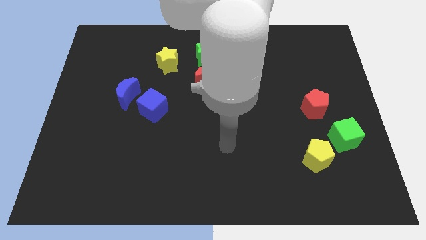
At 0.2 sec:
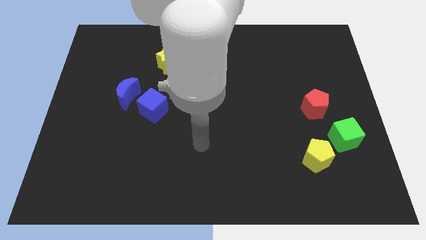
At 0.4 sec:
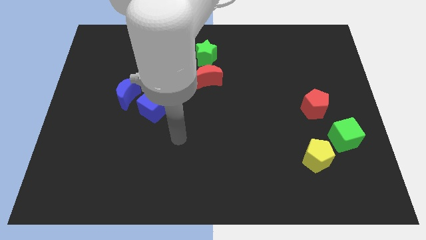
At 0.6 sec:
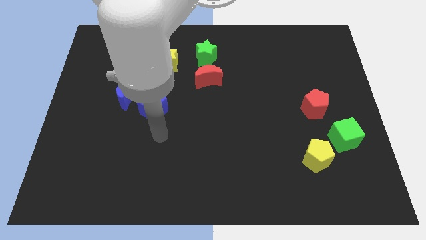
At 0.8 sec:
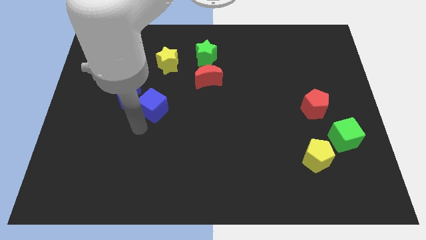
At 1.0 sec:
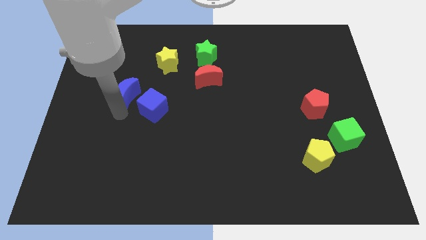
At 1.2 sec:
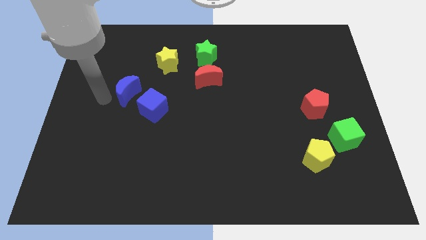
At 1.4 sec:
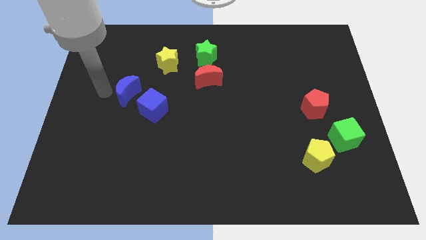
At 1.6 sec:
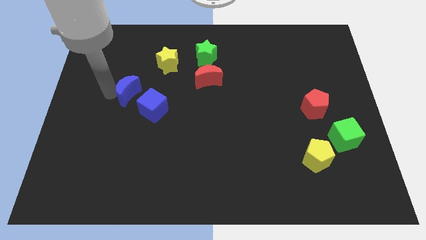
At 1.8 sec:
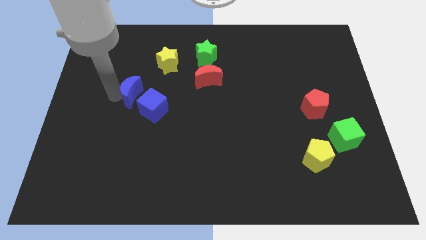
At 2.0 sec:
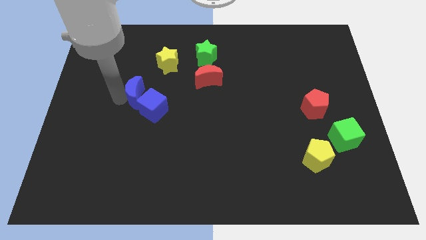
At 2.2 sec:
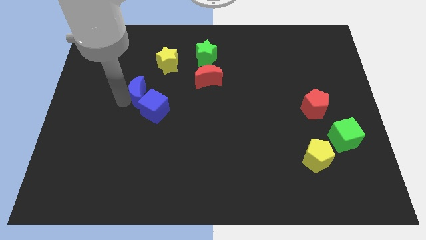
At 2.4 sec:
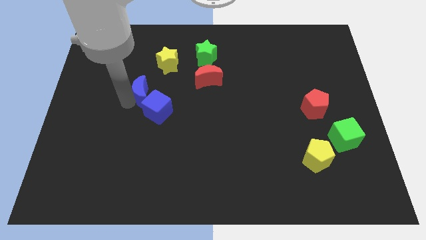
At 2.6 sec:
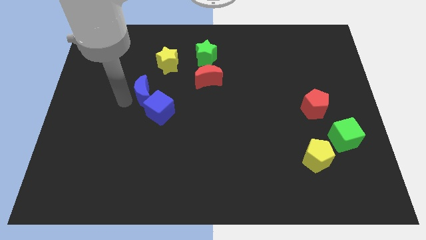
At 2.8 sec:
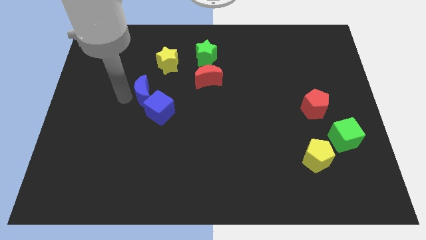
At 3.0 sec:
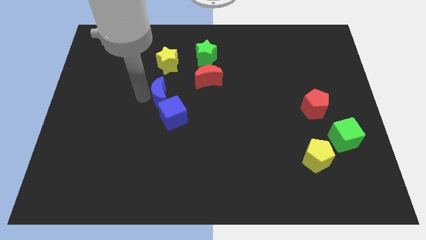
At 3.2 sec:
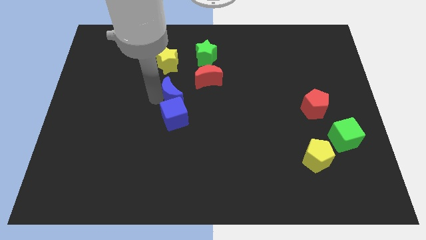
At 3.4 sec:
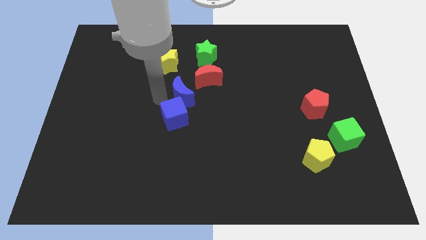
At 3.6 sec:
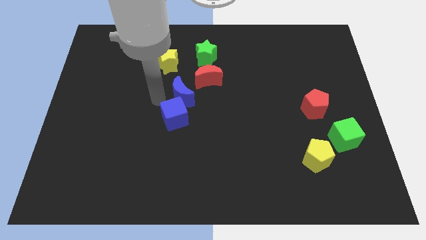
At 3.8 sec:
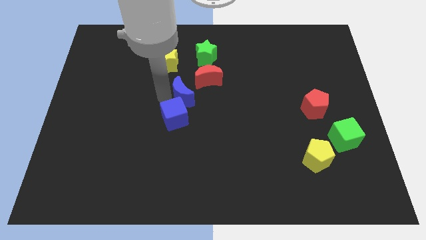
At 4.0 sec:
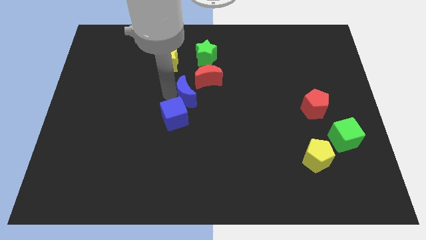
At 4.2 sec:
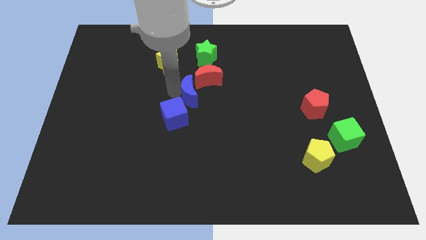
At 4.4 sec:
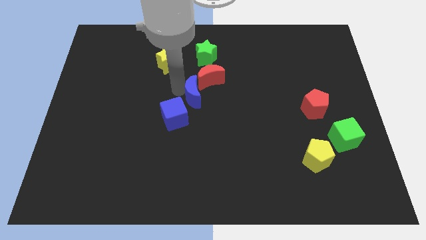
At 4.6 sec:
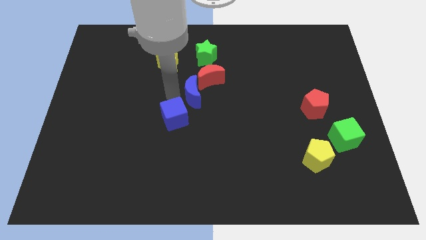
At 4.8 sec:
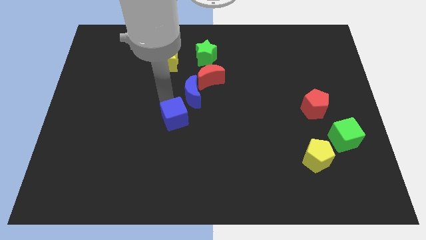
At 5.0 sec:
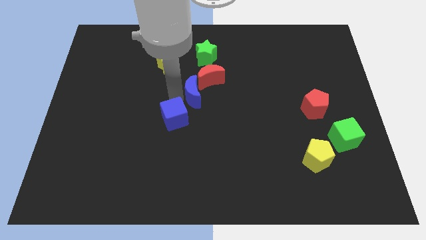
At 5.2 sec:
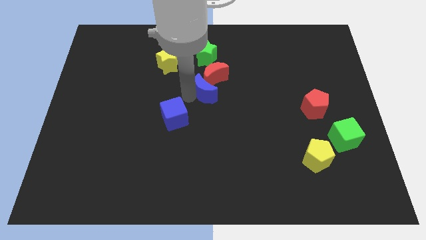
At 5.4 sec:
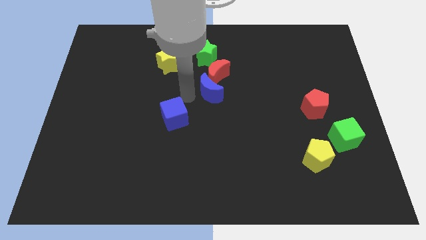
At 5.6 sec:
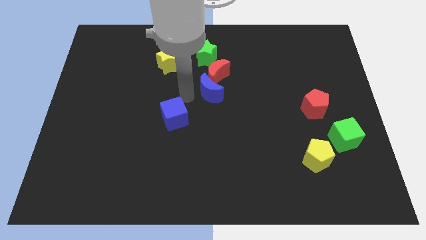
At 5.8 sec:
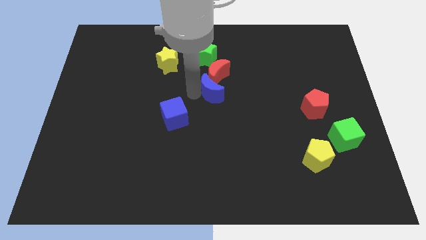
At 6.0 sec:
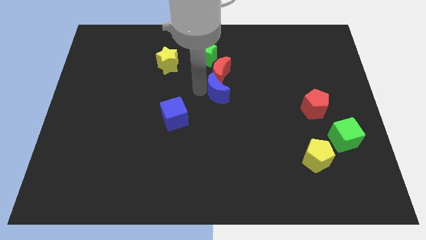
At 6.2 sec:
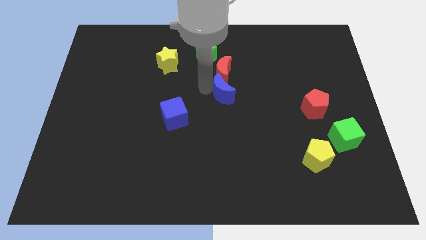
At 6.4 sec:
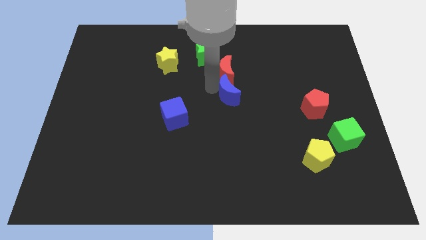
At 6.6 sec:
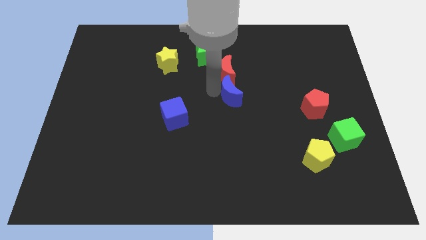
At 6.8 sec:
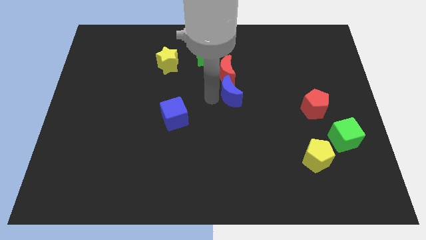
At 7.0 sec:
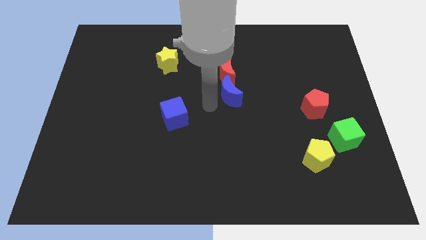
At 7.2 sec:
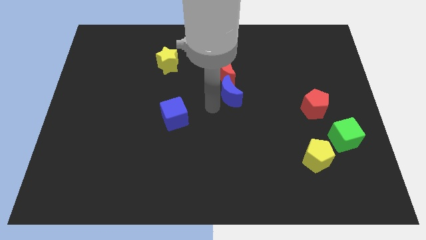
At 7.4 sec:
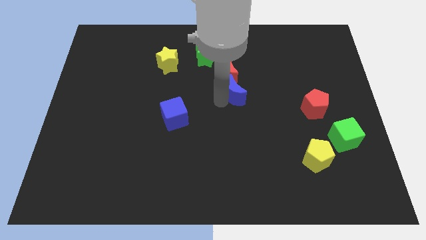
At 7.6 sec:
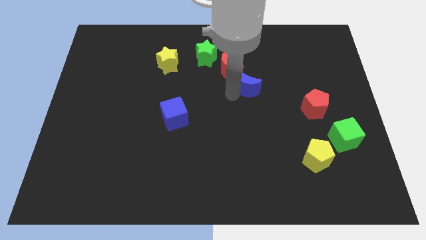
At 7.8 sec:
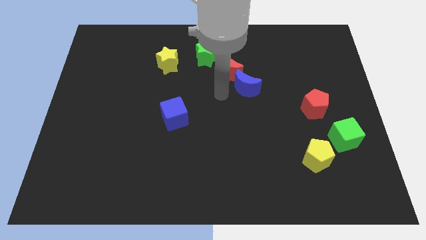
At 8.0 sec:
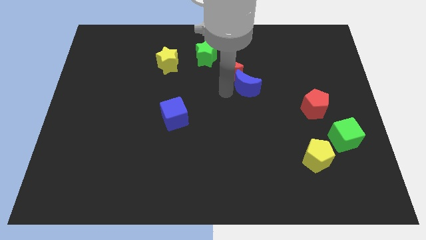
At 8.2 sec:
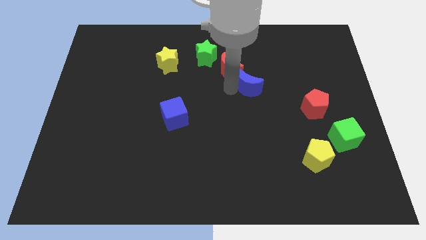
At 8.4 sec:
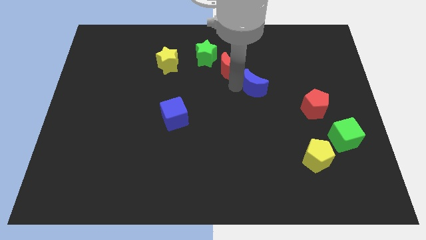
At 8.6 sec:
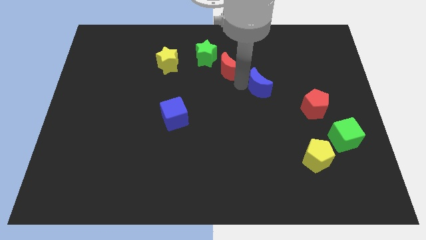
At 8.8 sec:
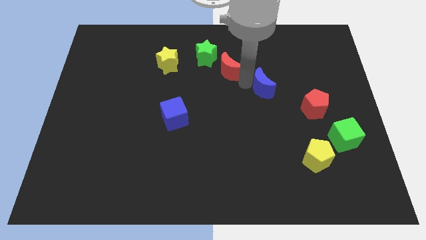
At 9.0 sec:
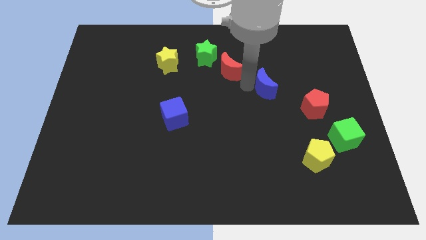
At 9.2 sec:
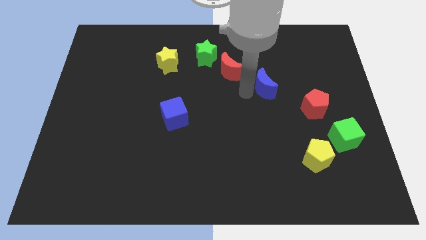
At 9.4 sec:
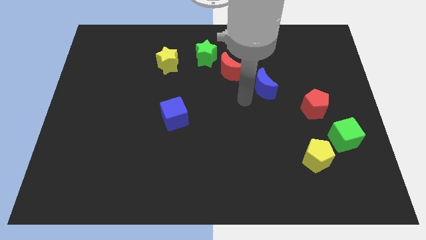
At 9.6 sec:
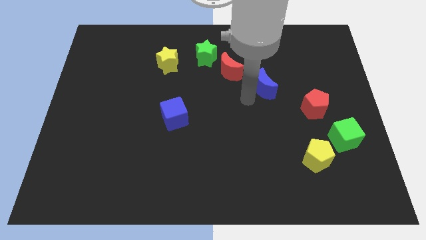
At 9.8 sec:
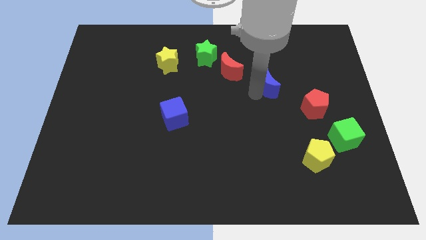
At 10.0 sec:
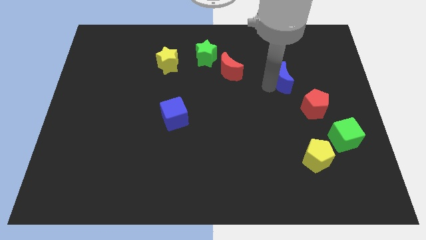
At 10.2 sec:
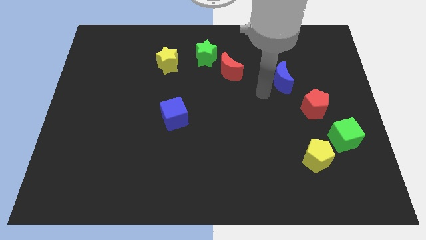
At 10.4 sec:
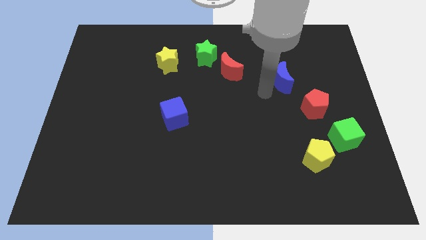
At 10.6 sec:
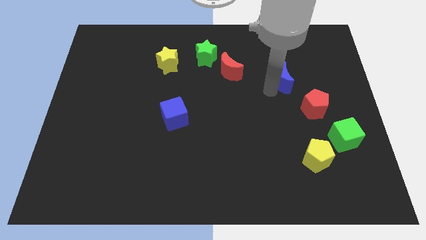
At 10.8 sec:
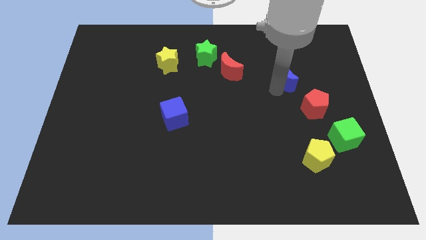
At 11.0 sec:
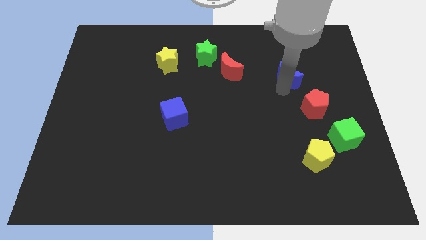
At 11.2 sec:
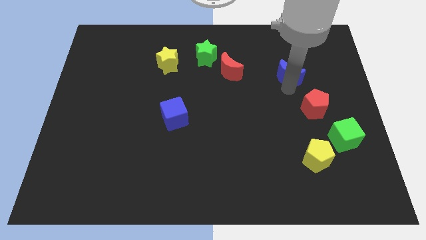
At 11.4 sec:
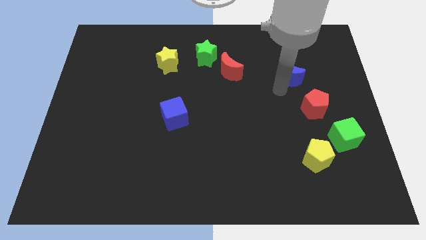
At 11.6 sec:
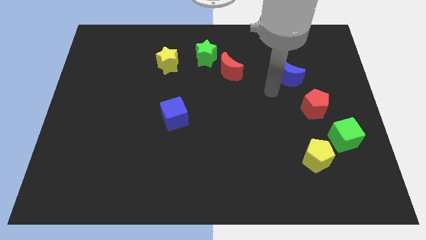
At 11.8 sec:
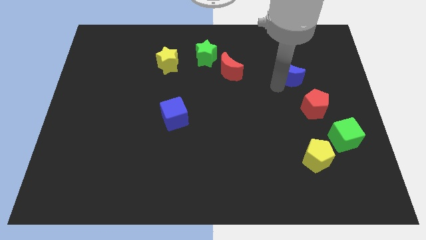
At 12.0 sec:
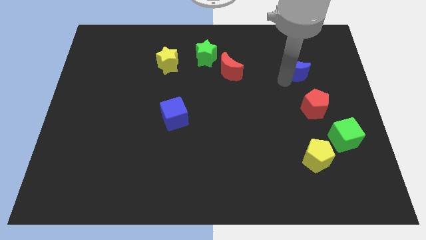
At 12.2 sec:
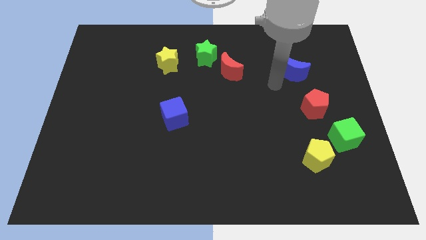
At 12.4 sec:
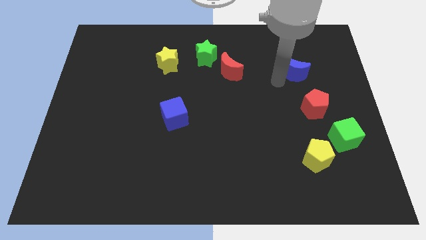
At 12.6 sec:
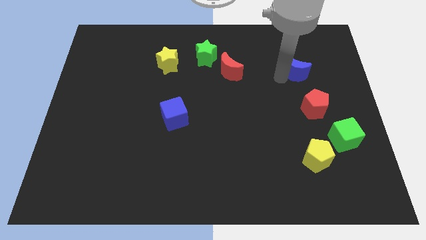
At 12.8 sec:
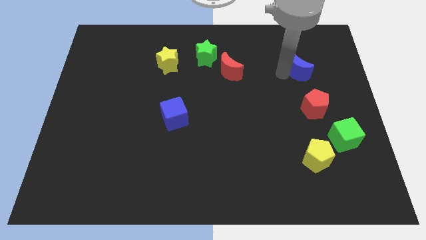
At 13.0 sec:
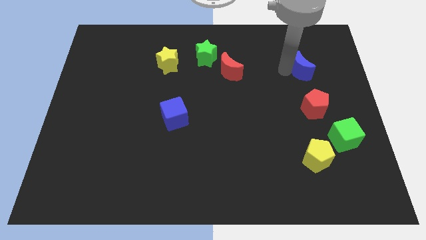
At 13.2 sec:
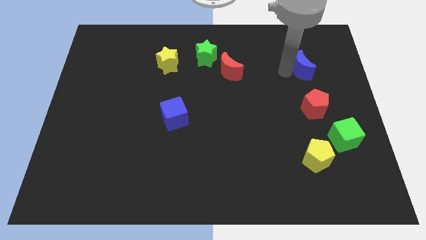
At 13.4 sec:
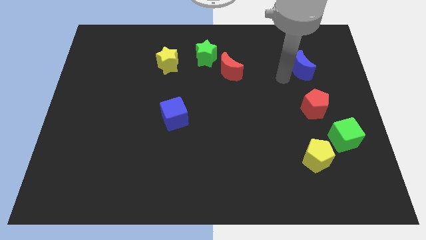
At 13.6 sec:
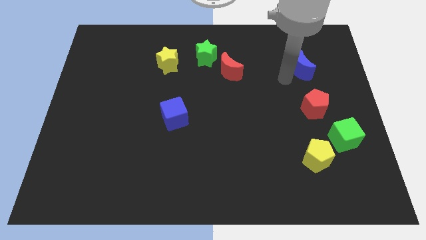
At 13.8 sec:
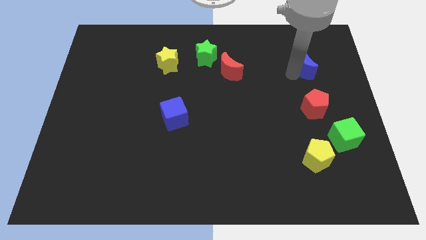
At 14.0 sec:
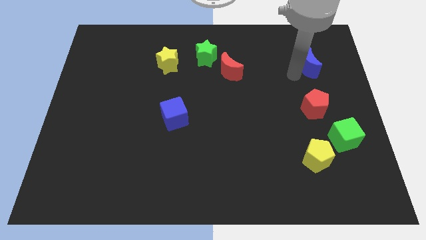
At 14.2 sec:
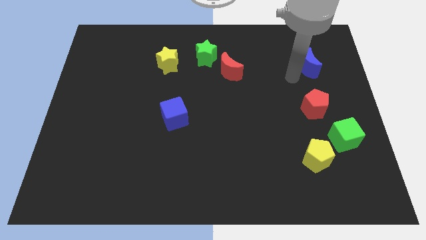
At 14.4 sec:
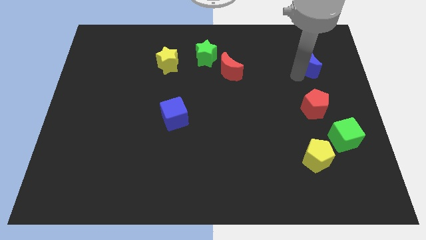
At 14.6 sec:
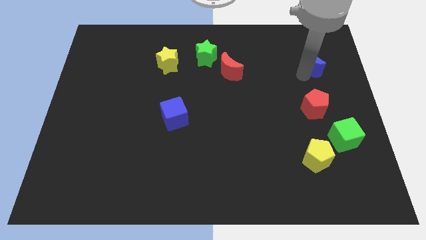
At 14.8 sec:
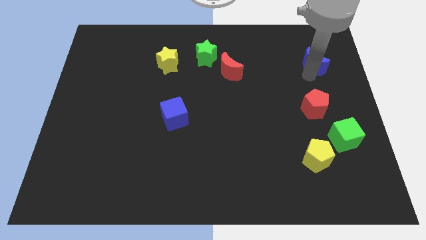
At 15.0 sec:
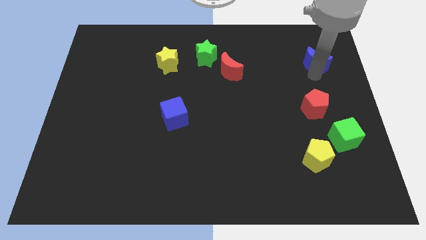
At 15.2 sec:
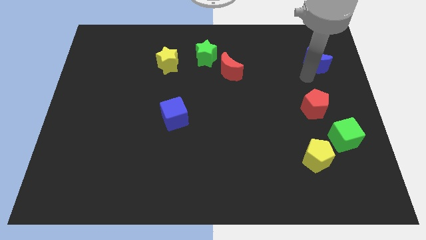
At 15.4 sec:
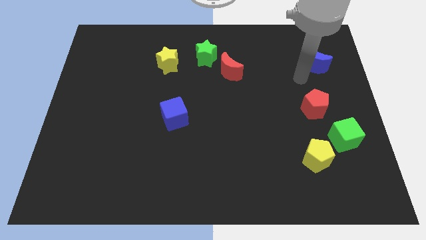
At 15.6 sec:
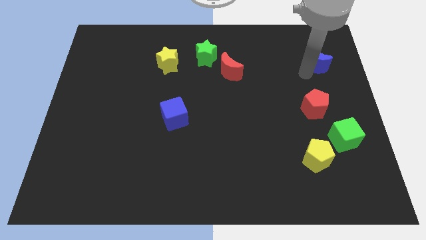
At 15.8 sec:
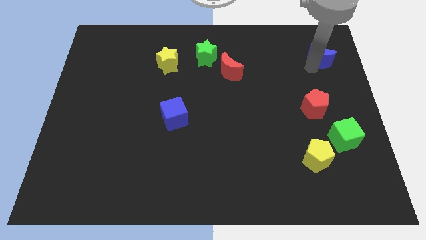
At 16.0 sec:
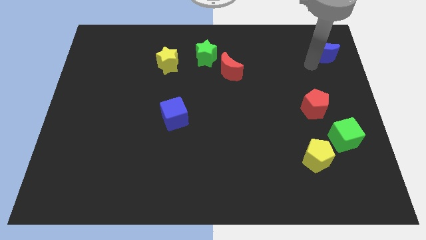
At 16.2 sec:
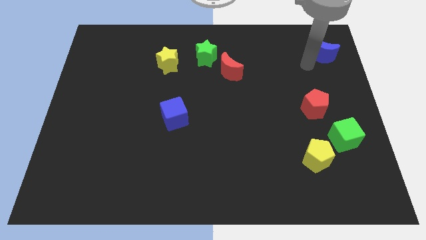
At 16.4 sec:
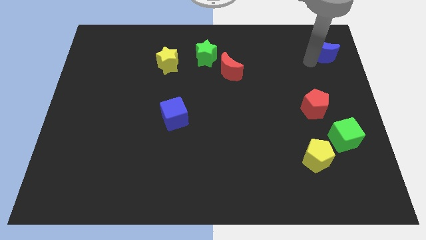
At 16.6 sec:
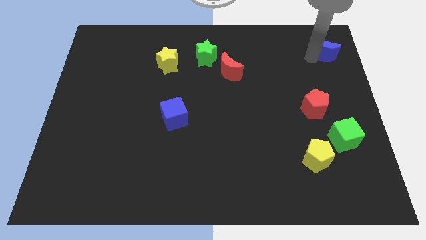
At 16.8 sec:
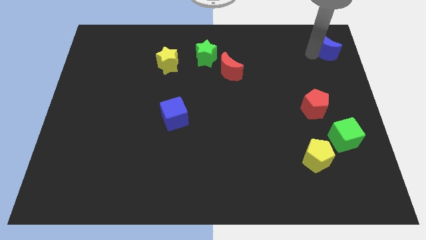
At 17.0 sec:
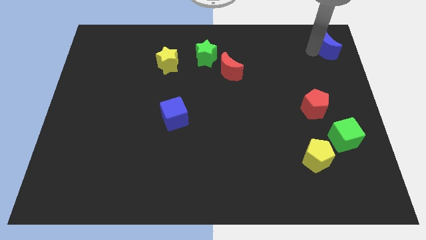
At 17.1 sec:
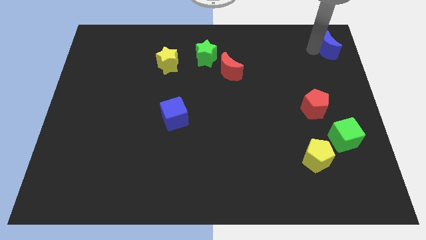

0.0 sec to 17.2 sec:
slide the blue moon to the top right corner
